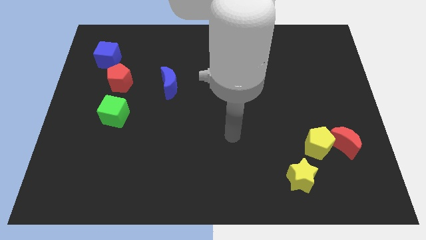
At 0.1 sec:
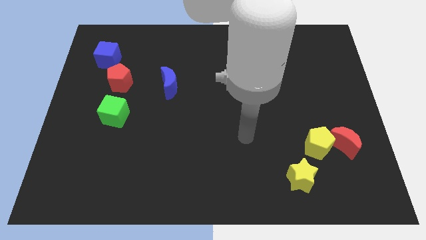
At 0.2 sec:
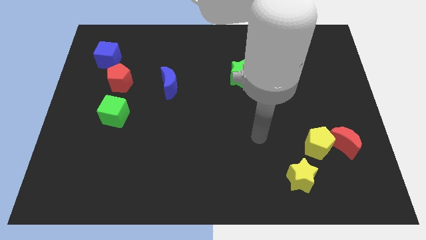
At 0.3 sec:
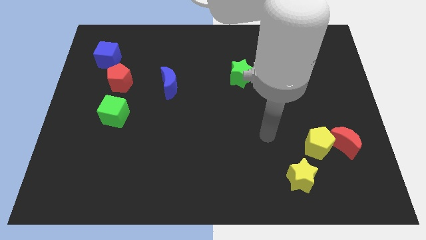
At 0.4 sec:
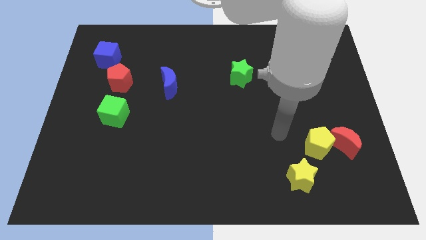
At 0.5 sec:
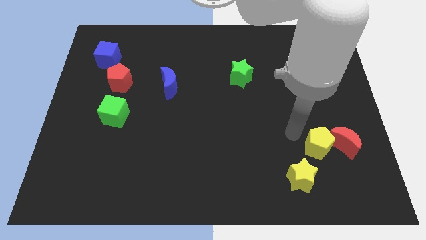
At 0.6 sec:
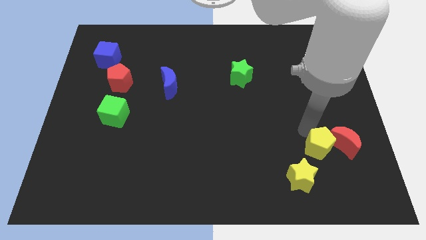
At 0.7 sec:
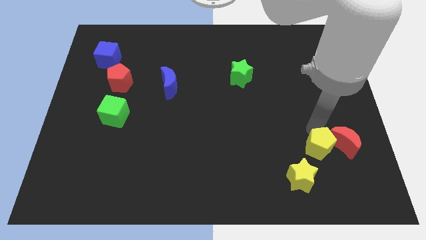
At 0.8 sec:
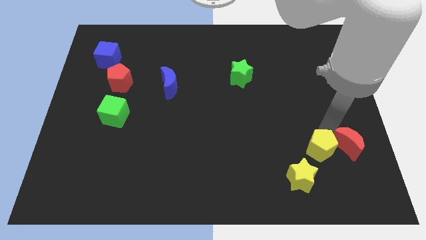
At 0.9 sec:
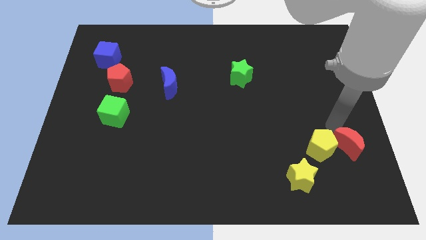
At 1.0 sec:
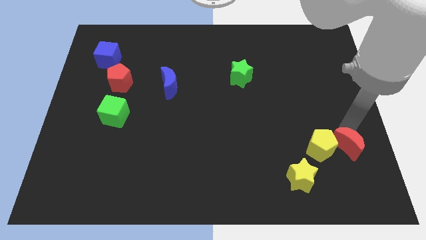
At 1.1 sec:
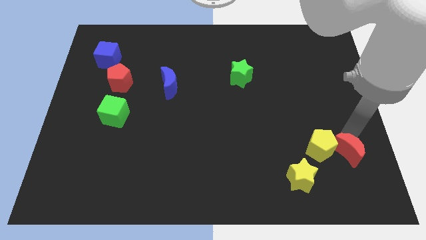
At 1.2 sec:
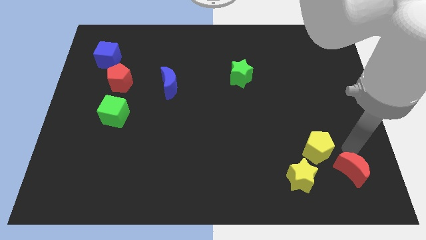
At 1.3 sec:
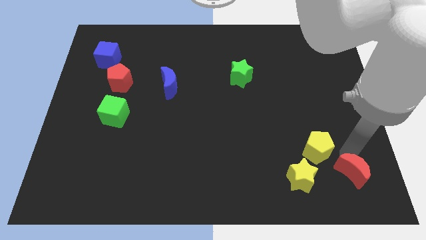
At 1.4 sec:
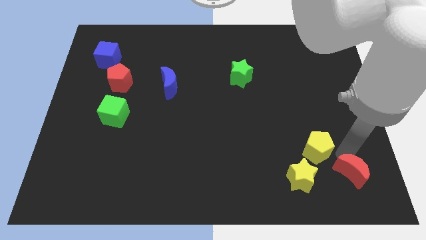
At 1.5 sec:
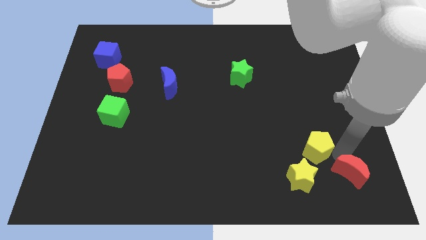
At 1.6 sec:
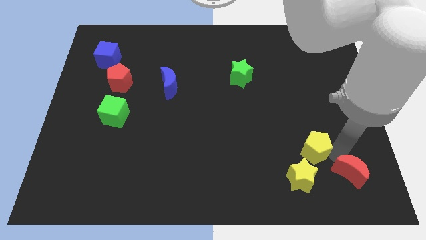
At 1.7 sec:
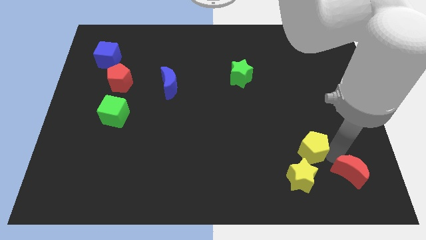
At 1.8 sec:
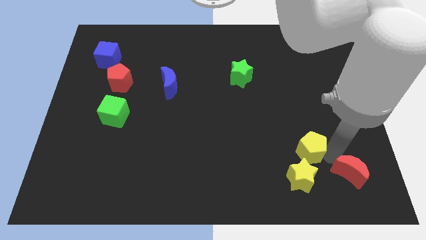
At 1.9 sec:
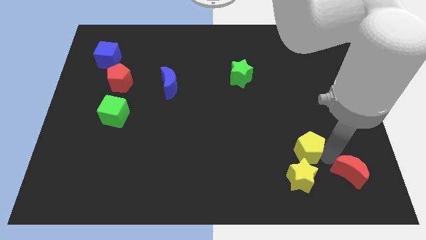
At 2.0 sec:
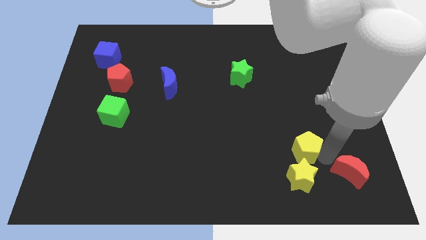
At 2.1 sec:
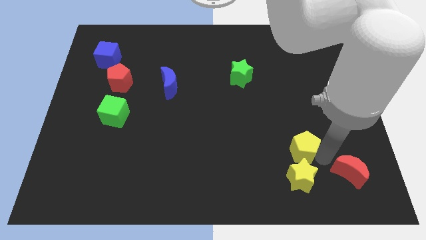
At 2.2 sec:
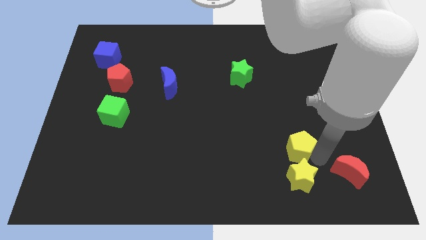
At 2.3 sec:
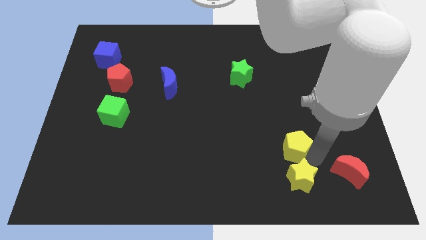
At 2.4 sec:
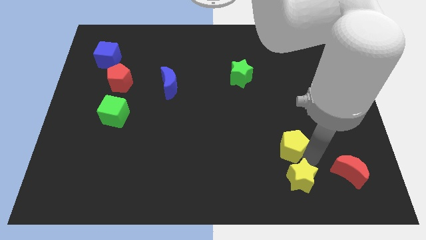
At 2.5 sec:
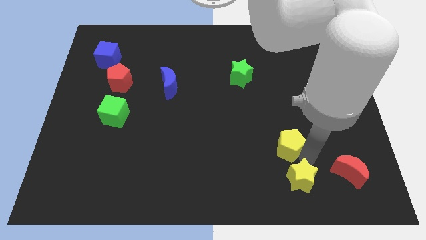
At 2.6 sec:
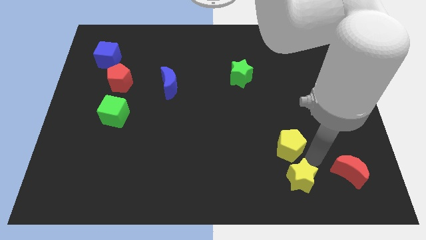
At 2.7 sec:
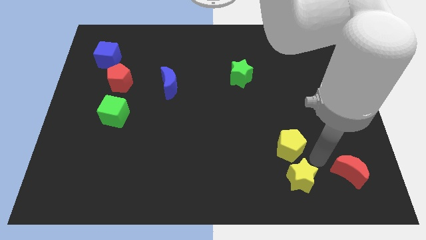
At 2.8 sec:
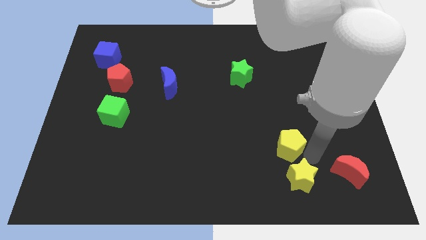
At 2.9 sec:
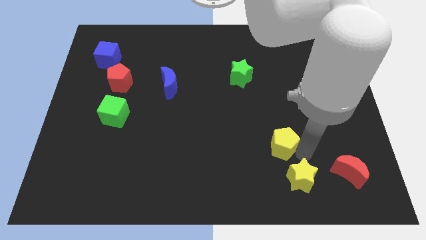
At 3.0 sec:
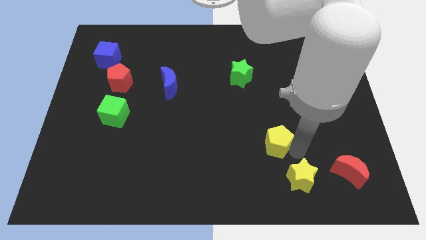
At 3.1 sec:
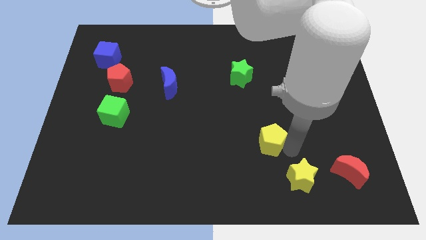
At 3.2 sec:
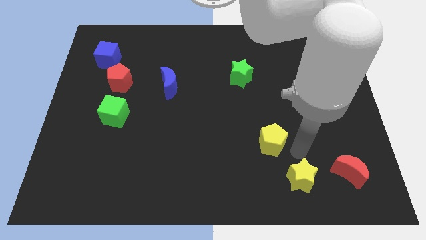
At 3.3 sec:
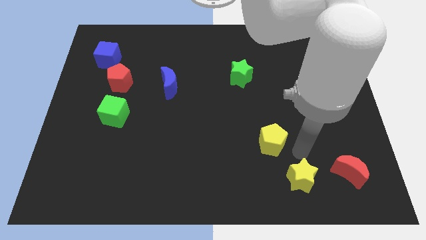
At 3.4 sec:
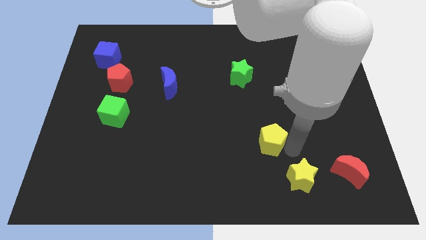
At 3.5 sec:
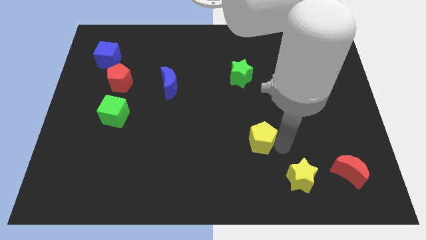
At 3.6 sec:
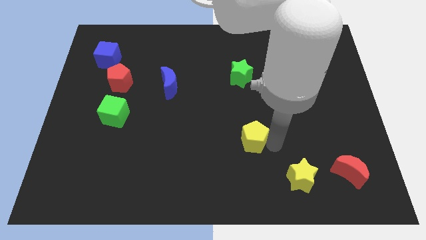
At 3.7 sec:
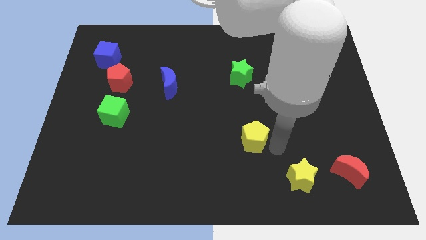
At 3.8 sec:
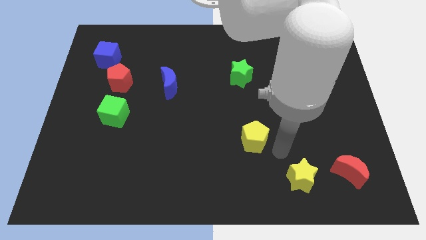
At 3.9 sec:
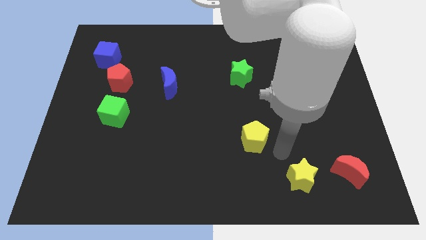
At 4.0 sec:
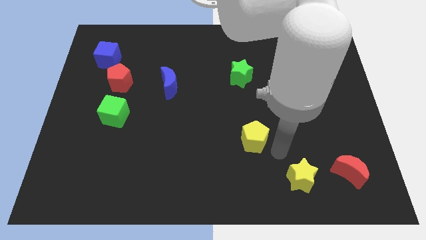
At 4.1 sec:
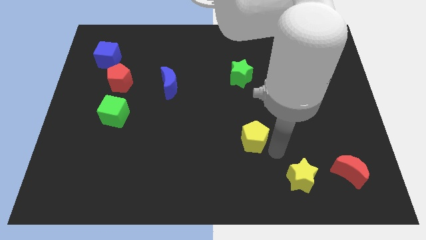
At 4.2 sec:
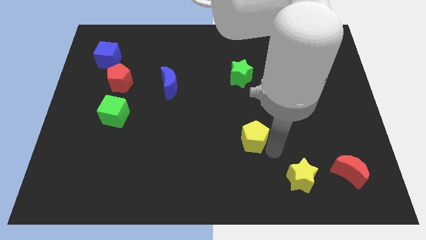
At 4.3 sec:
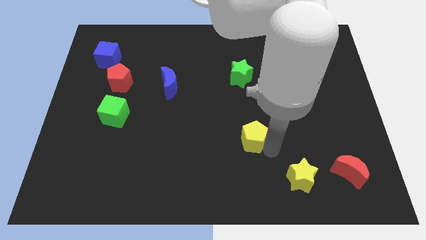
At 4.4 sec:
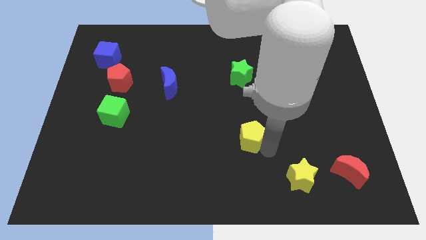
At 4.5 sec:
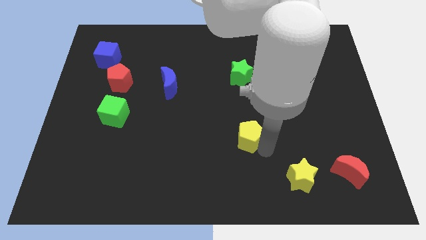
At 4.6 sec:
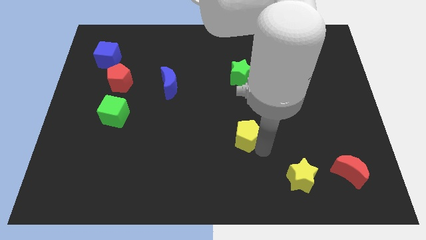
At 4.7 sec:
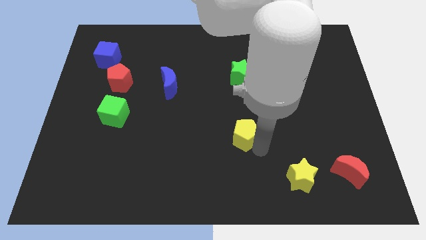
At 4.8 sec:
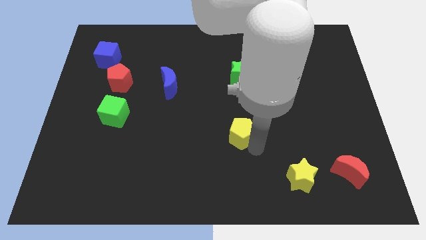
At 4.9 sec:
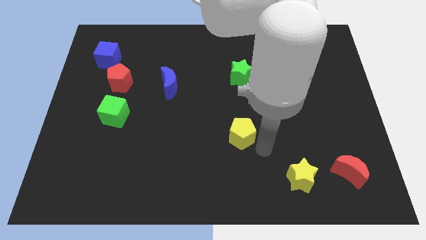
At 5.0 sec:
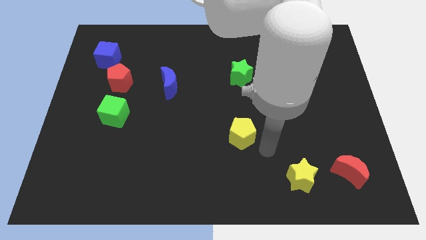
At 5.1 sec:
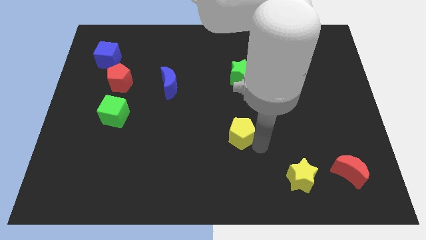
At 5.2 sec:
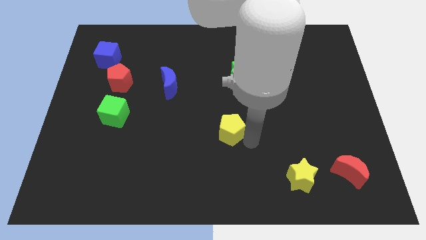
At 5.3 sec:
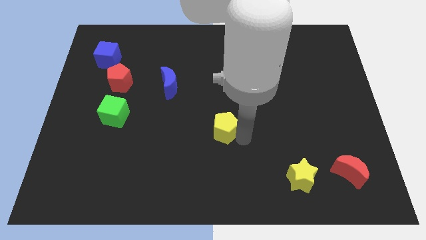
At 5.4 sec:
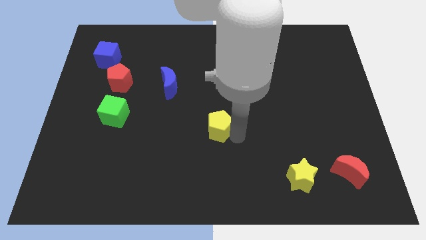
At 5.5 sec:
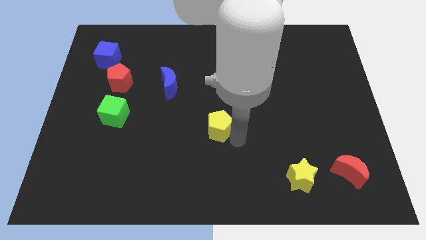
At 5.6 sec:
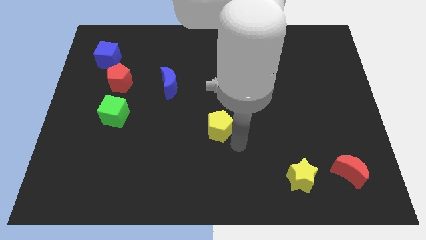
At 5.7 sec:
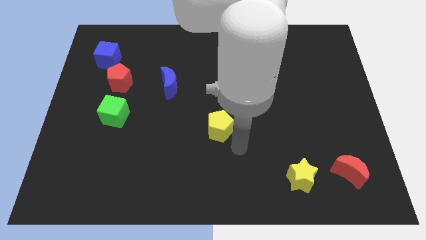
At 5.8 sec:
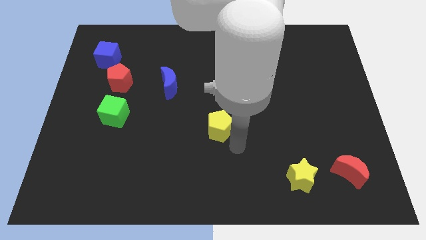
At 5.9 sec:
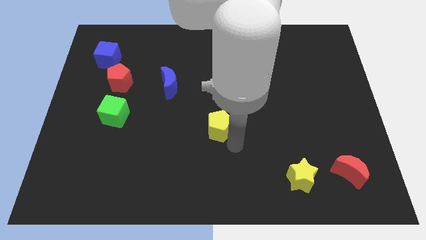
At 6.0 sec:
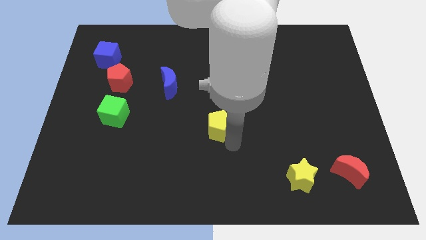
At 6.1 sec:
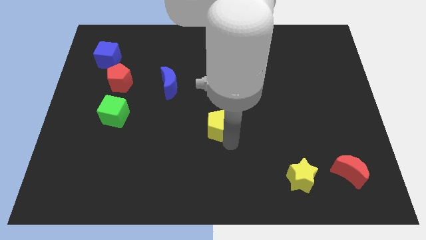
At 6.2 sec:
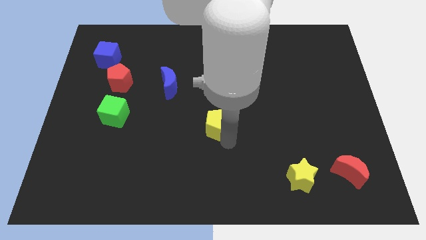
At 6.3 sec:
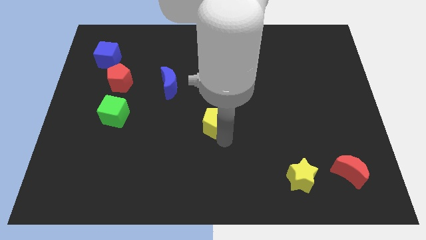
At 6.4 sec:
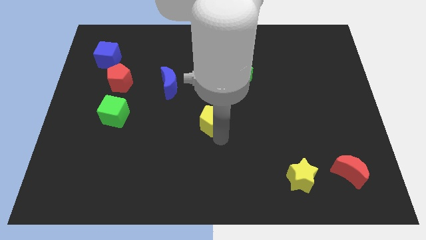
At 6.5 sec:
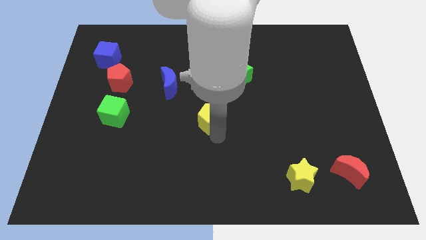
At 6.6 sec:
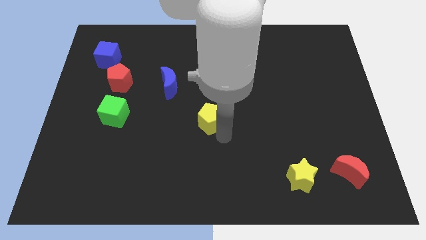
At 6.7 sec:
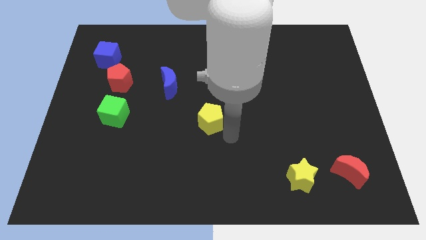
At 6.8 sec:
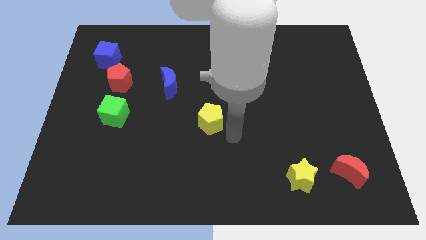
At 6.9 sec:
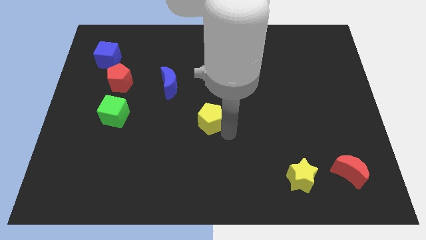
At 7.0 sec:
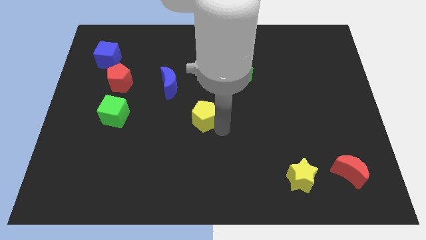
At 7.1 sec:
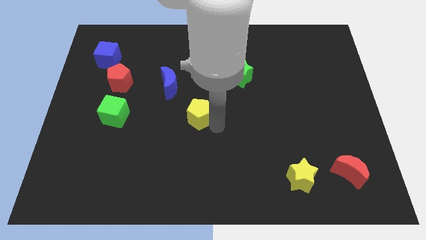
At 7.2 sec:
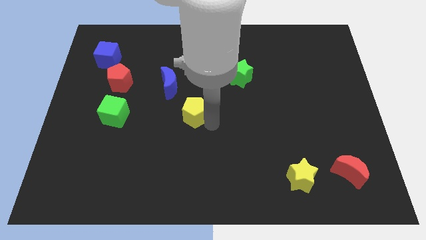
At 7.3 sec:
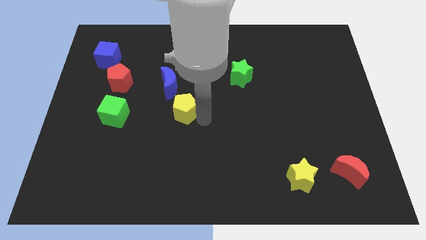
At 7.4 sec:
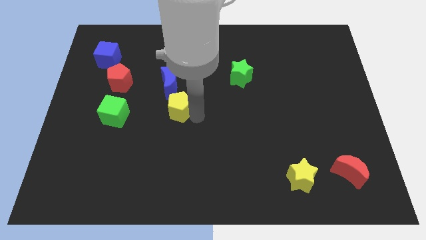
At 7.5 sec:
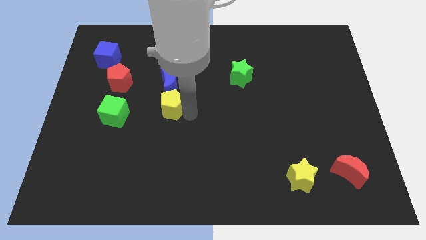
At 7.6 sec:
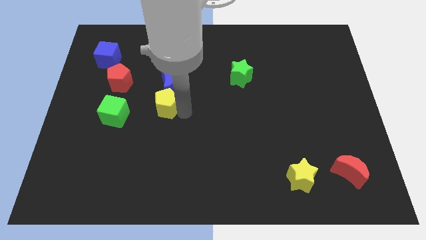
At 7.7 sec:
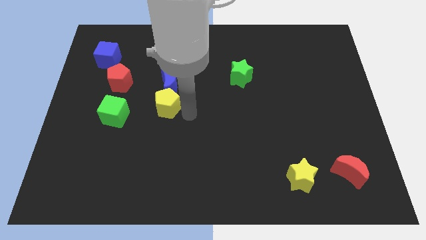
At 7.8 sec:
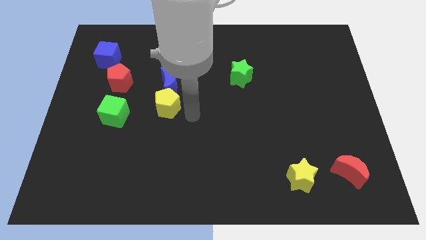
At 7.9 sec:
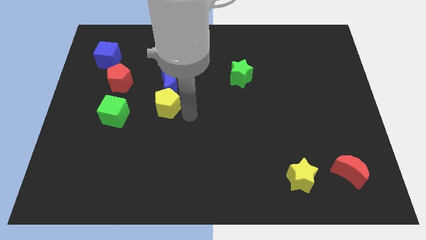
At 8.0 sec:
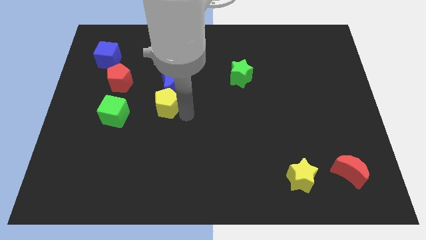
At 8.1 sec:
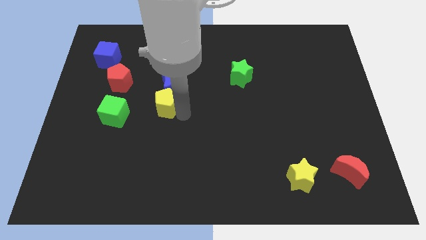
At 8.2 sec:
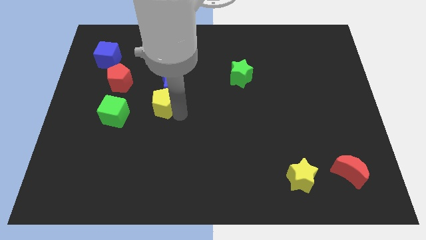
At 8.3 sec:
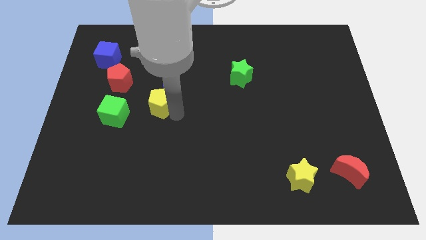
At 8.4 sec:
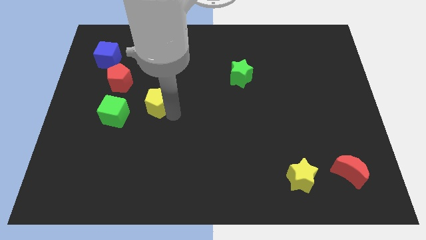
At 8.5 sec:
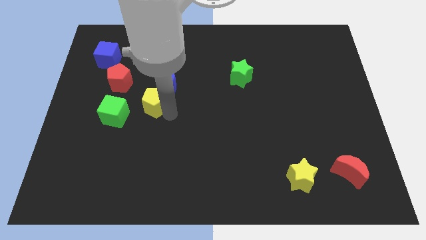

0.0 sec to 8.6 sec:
slide the yellow pentagon to the top right side of the green cube
